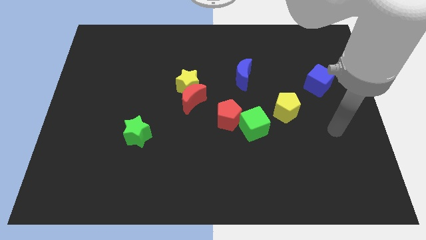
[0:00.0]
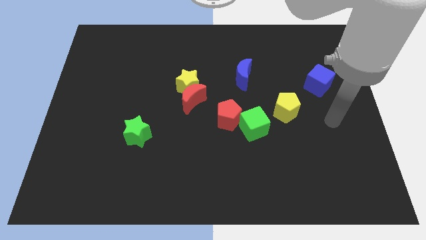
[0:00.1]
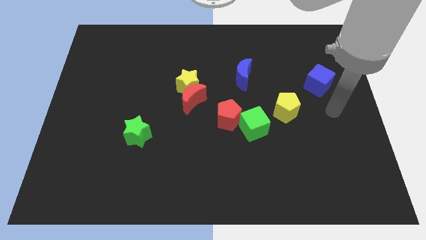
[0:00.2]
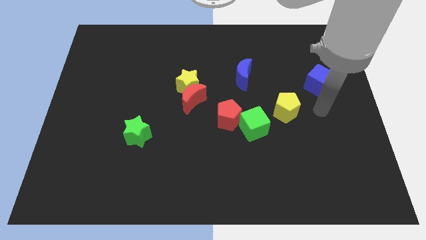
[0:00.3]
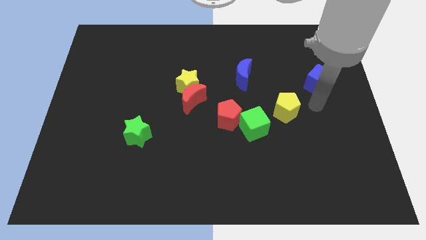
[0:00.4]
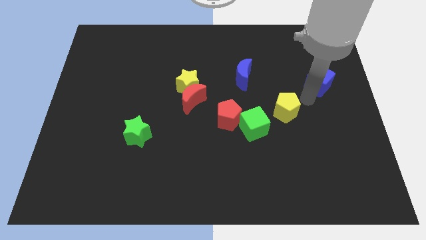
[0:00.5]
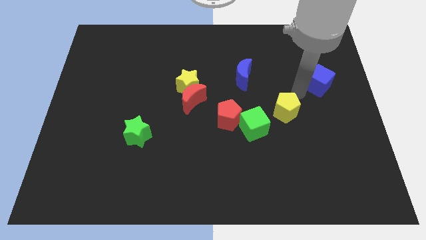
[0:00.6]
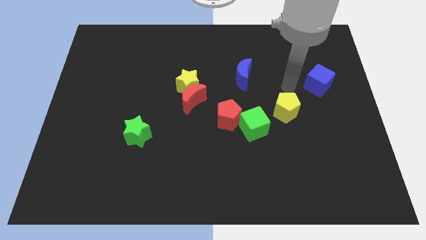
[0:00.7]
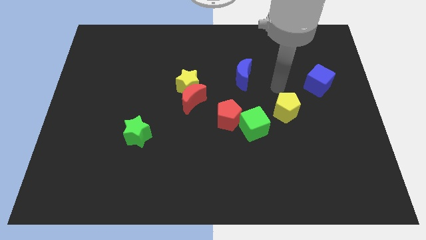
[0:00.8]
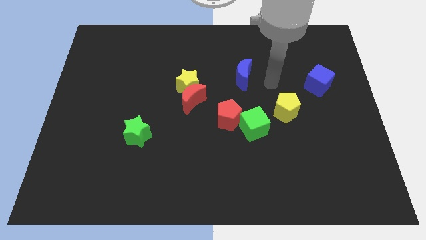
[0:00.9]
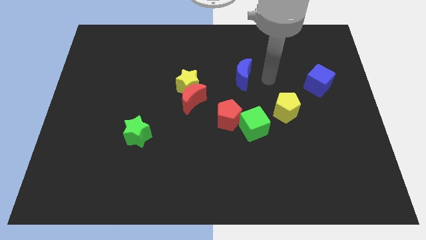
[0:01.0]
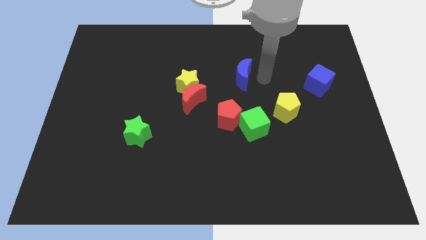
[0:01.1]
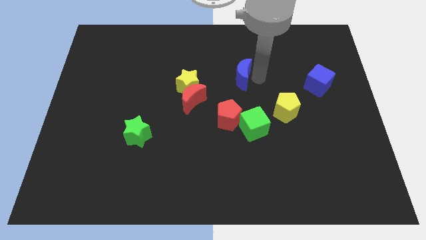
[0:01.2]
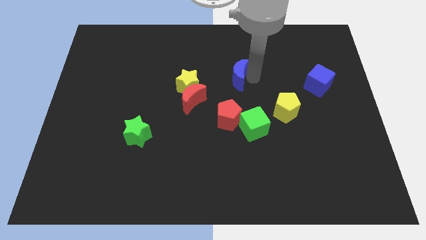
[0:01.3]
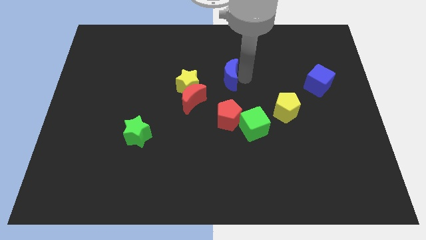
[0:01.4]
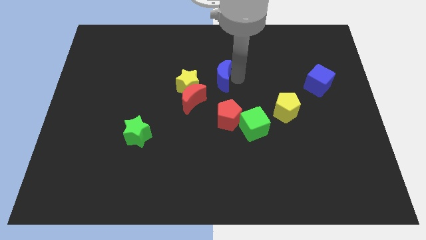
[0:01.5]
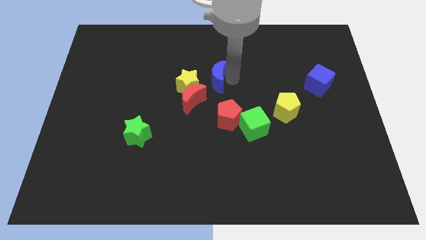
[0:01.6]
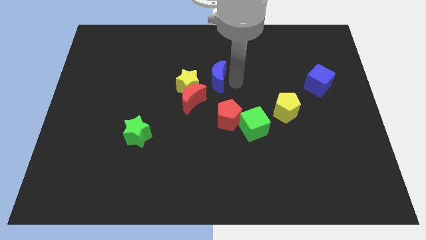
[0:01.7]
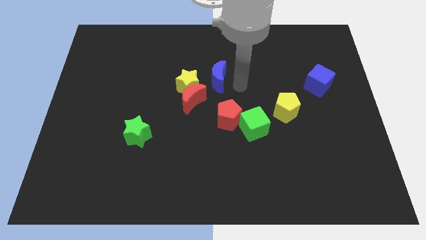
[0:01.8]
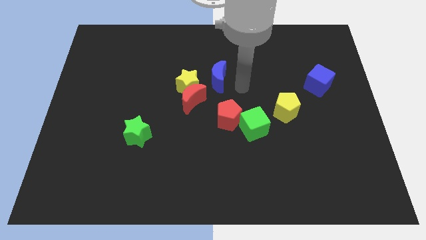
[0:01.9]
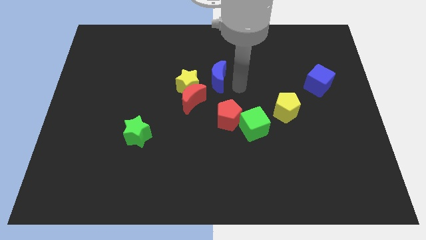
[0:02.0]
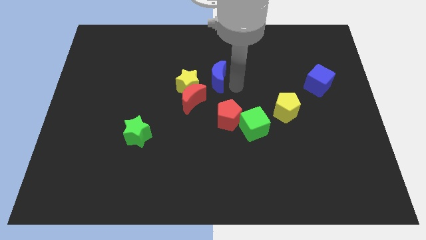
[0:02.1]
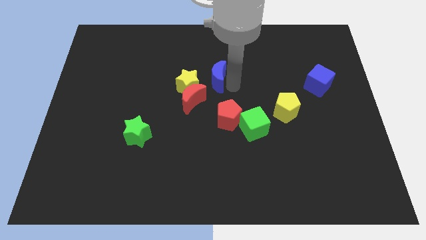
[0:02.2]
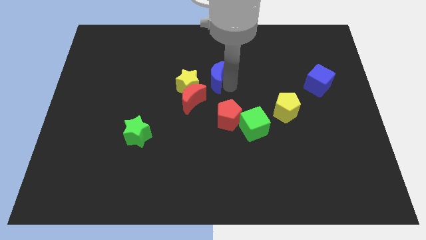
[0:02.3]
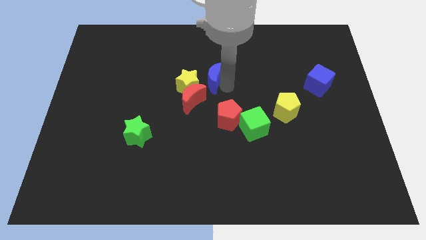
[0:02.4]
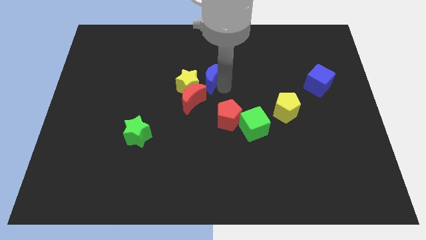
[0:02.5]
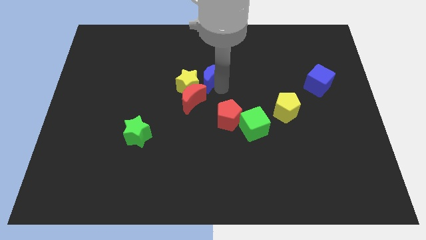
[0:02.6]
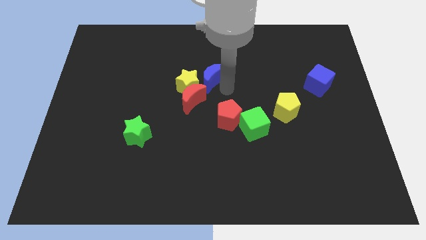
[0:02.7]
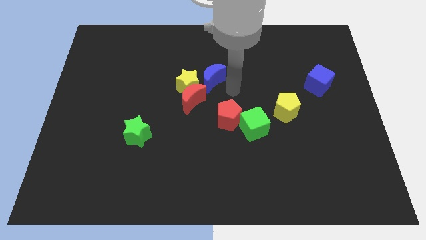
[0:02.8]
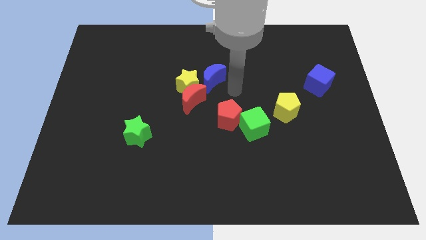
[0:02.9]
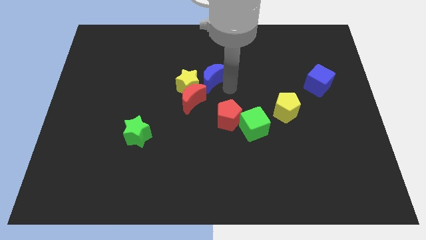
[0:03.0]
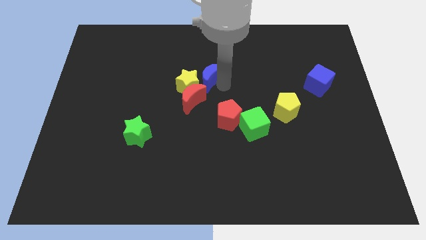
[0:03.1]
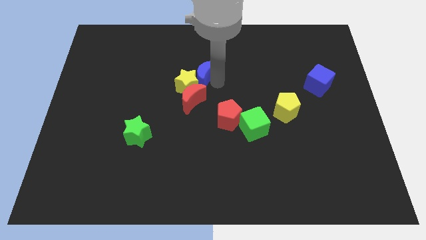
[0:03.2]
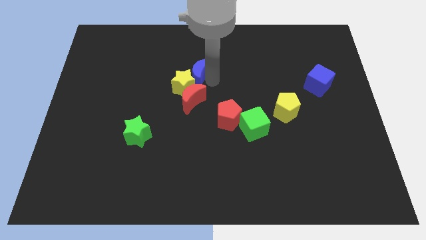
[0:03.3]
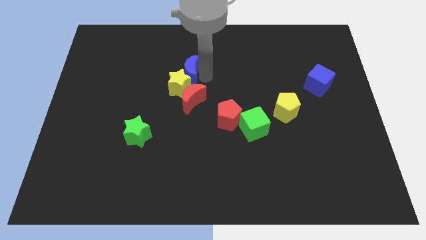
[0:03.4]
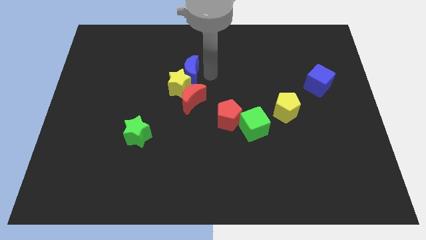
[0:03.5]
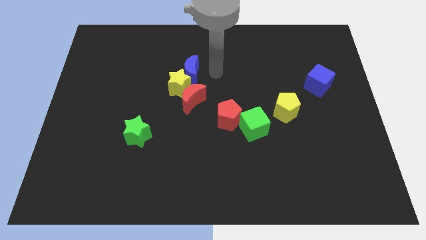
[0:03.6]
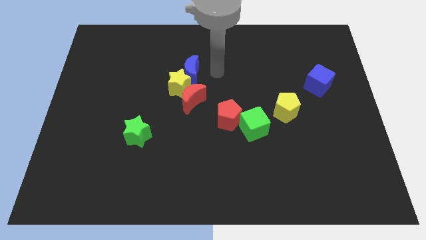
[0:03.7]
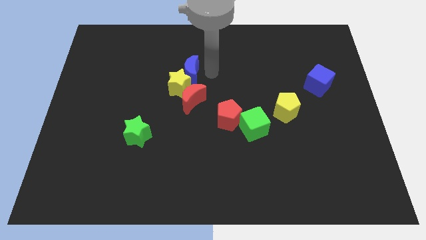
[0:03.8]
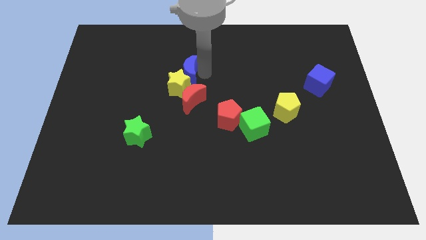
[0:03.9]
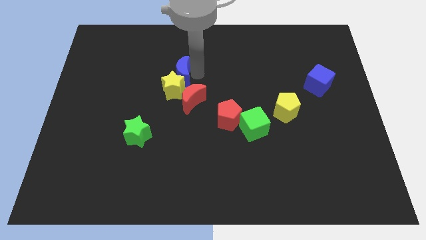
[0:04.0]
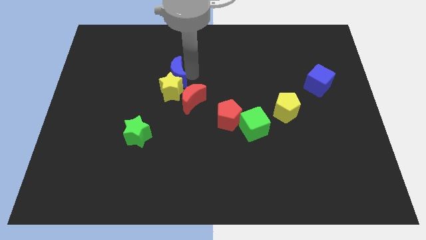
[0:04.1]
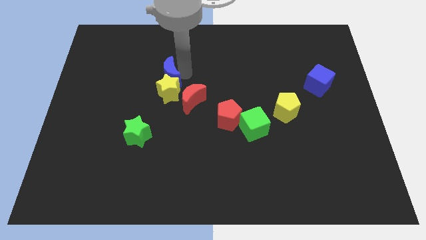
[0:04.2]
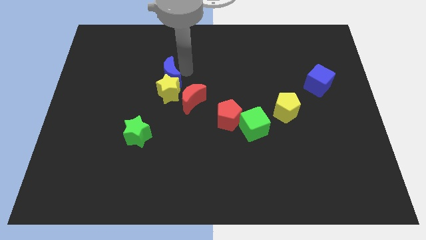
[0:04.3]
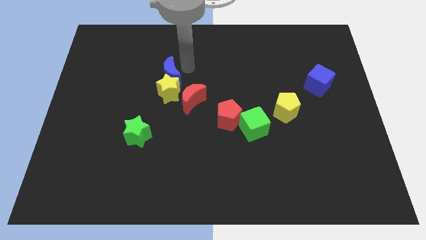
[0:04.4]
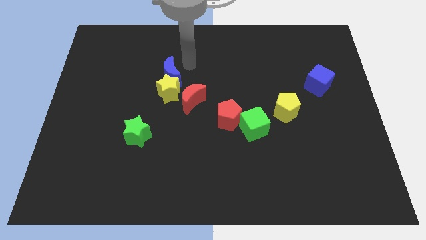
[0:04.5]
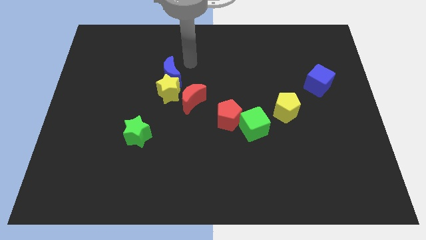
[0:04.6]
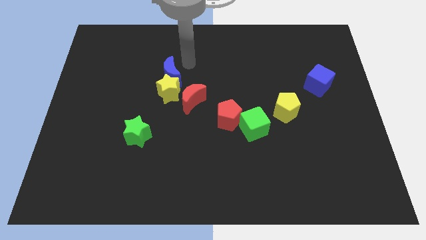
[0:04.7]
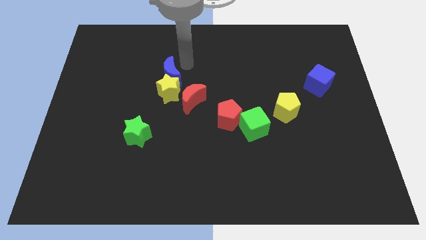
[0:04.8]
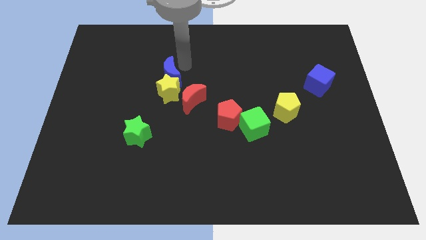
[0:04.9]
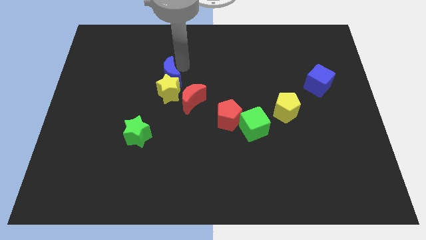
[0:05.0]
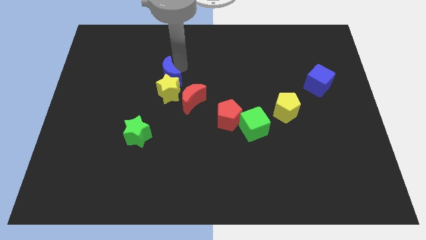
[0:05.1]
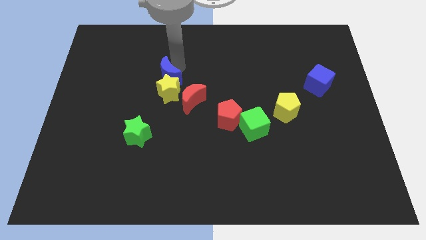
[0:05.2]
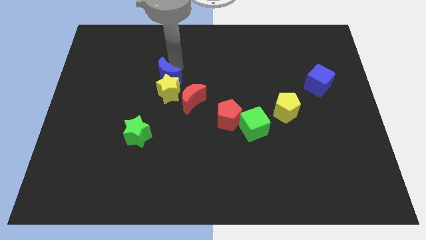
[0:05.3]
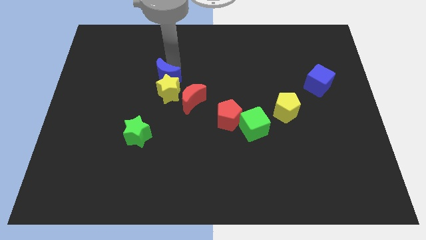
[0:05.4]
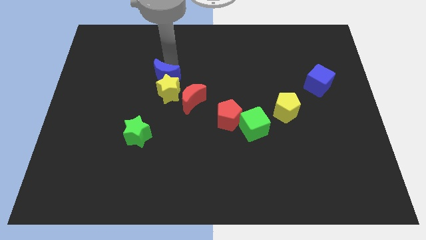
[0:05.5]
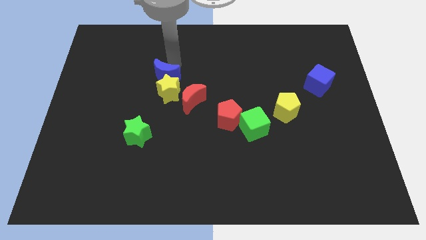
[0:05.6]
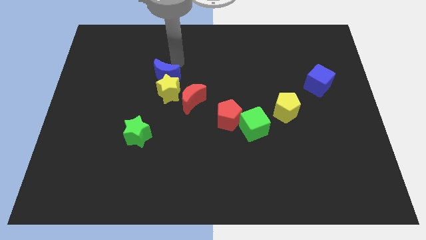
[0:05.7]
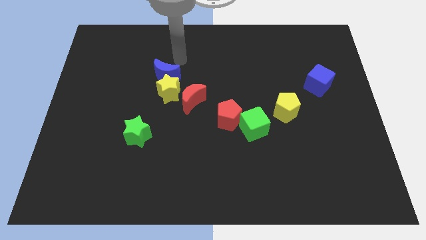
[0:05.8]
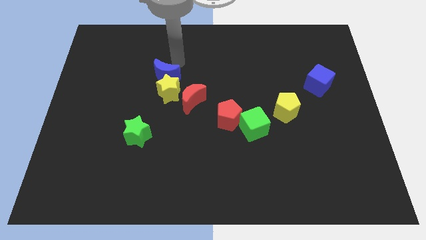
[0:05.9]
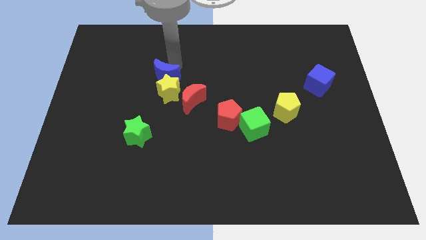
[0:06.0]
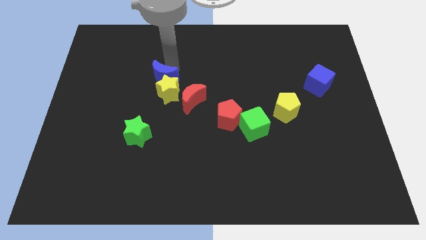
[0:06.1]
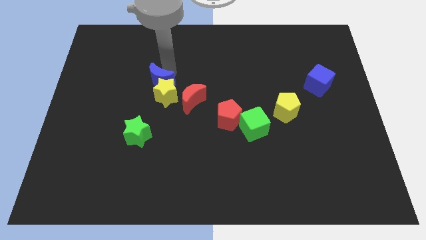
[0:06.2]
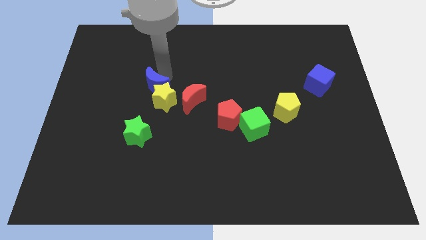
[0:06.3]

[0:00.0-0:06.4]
push the blue moon to the top of the green star

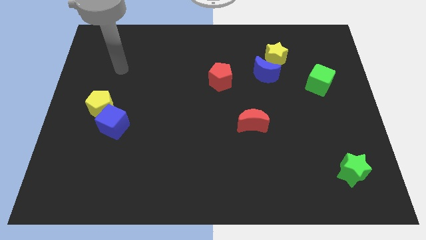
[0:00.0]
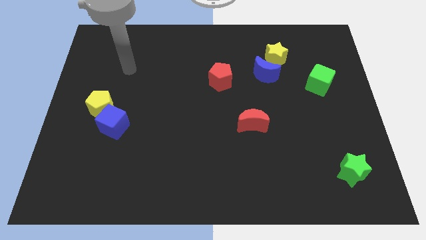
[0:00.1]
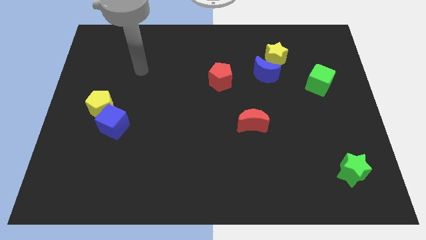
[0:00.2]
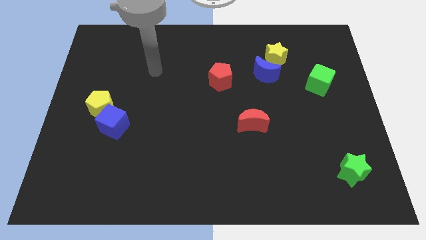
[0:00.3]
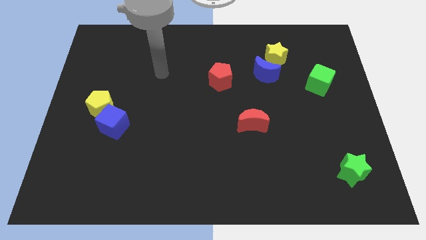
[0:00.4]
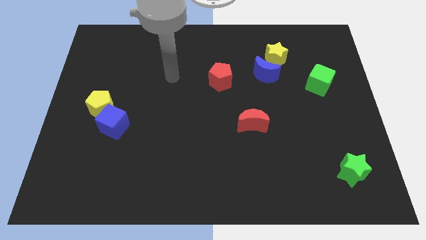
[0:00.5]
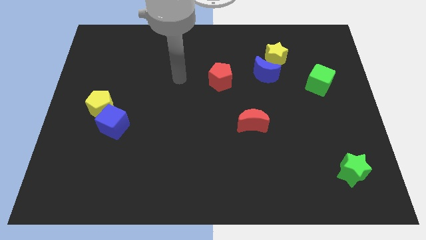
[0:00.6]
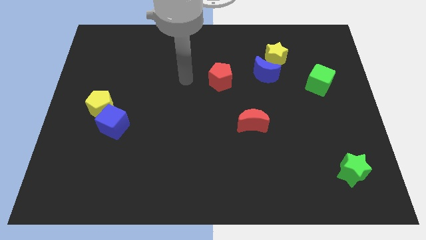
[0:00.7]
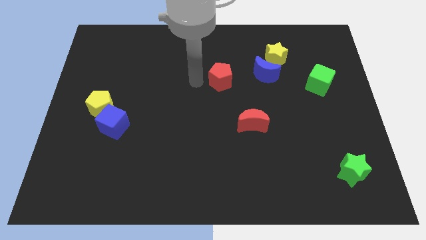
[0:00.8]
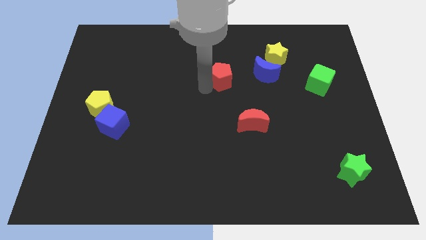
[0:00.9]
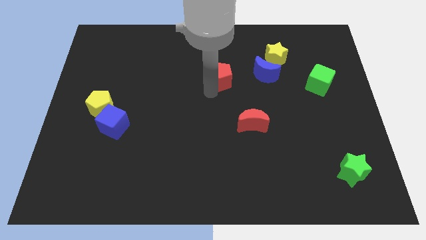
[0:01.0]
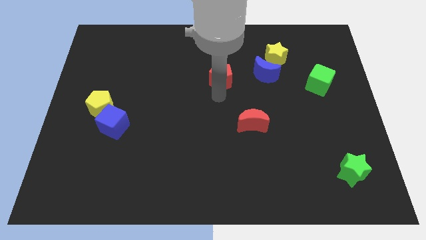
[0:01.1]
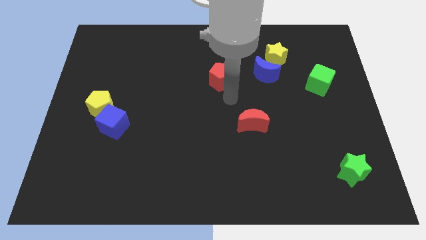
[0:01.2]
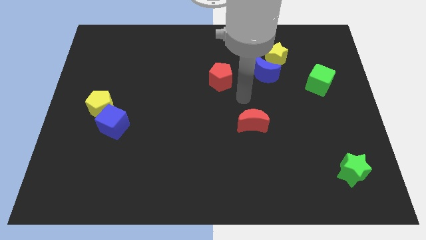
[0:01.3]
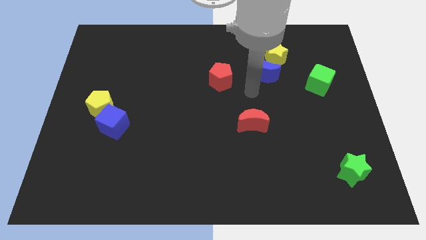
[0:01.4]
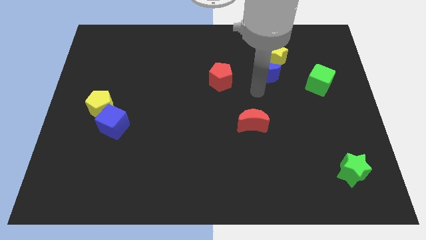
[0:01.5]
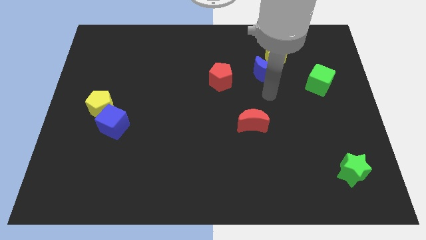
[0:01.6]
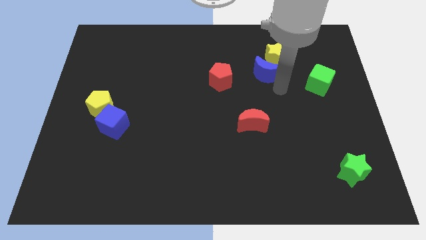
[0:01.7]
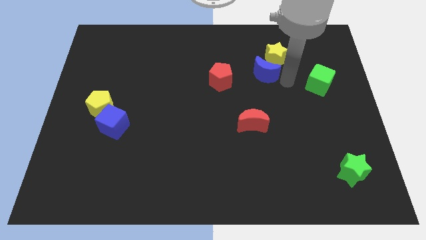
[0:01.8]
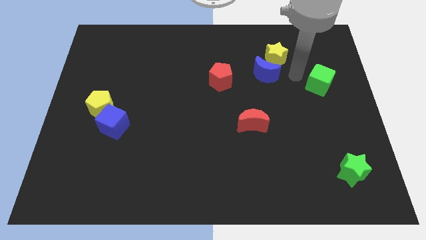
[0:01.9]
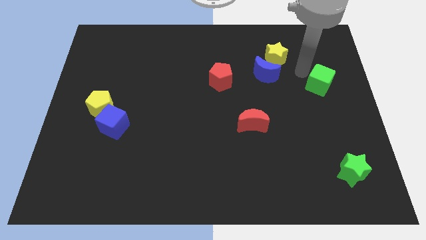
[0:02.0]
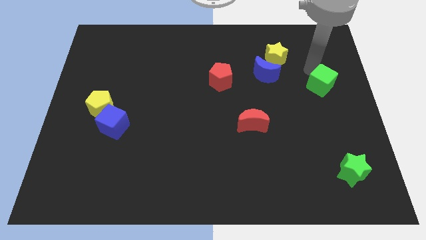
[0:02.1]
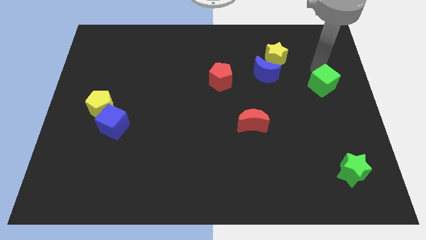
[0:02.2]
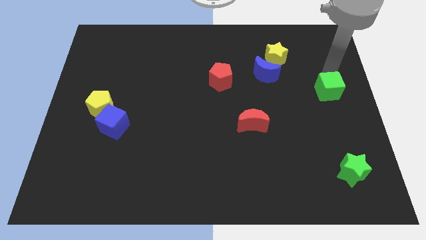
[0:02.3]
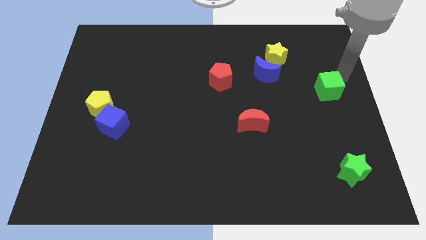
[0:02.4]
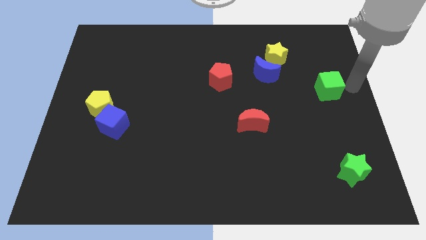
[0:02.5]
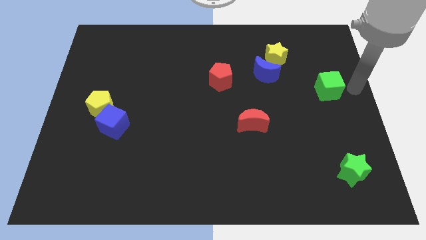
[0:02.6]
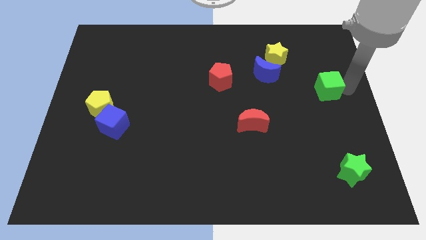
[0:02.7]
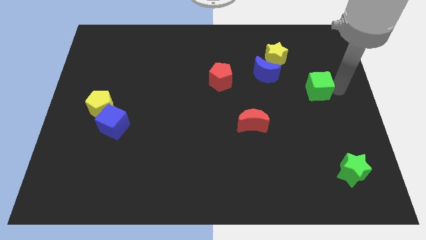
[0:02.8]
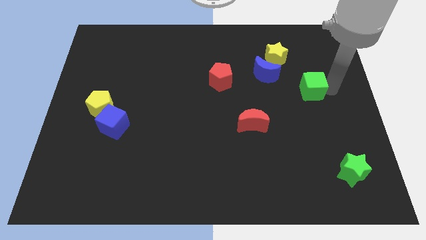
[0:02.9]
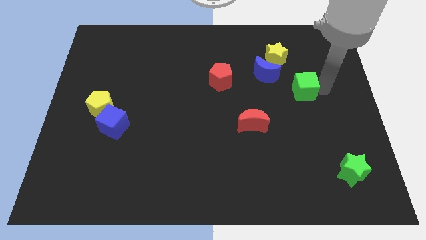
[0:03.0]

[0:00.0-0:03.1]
move the green cube to the bottom right of the blue moon
